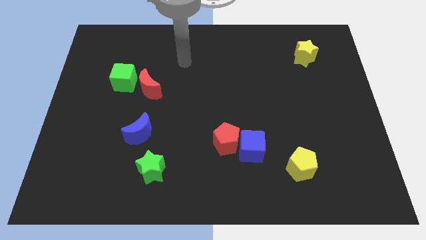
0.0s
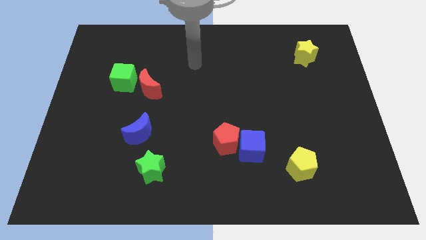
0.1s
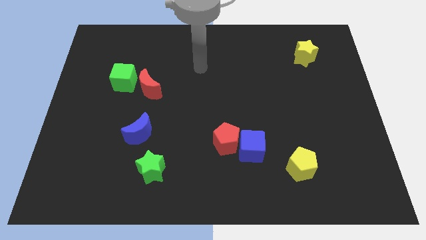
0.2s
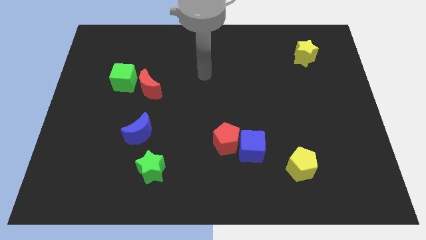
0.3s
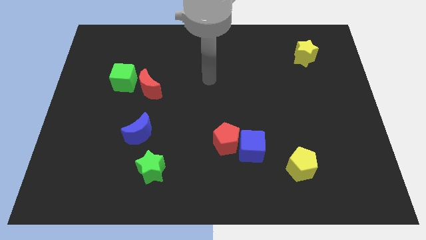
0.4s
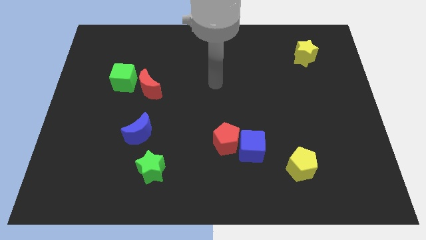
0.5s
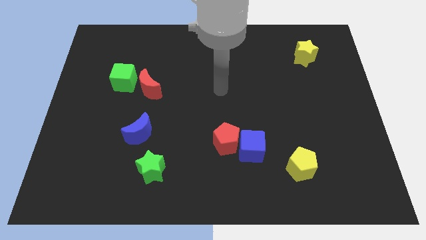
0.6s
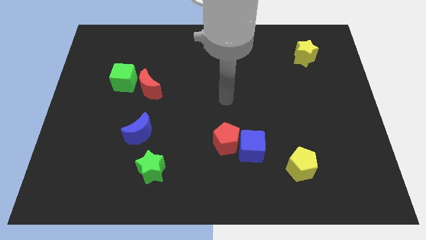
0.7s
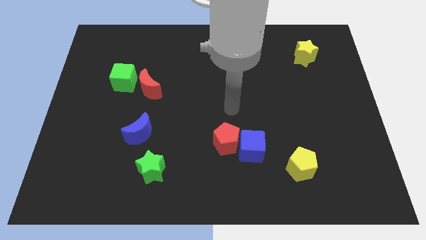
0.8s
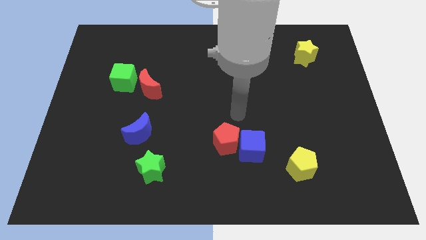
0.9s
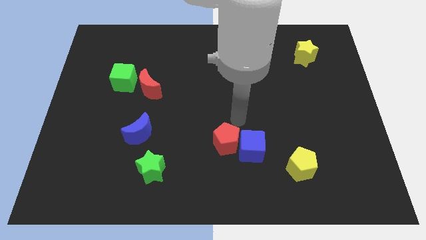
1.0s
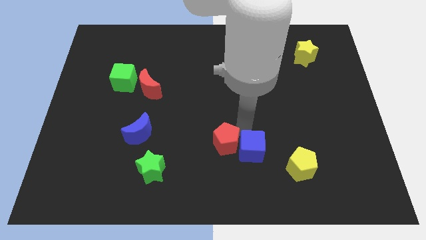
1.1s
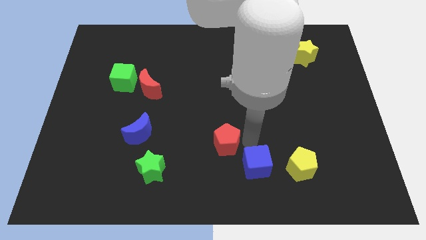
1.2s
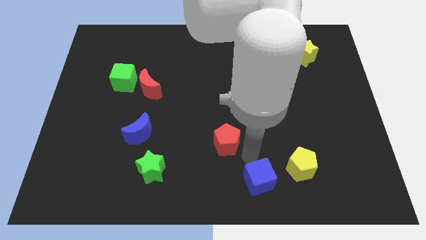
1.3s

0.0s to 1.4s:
separate the red pentagon from the blue cube

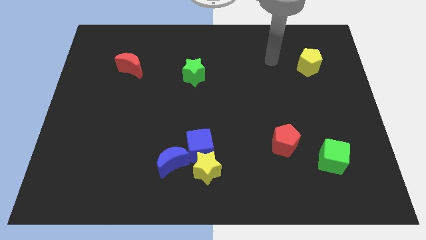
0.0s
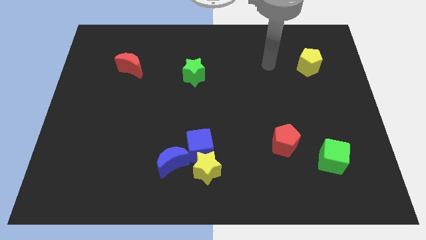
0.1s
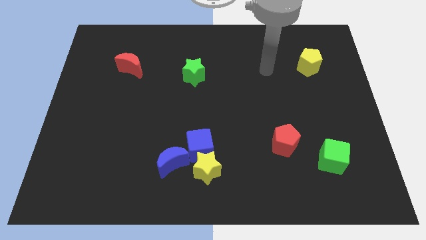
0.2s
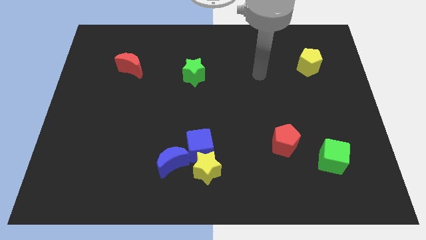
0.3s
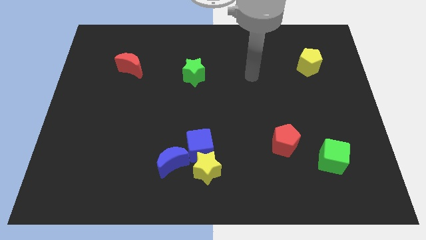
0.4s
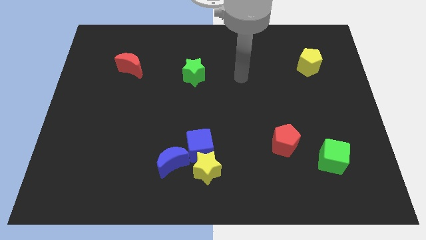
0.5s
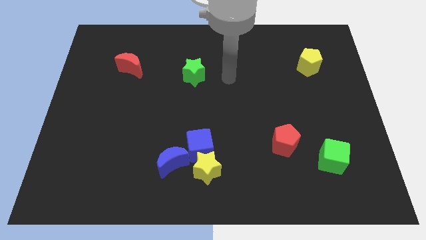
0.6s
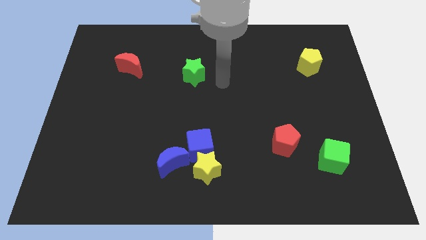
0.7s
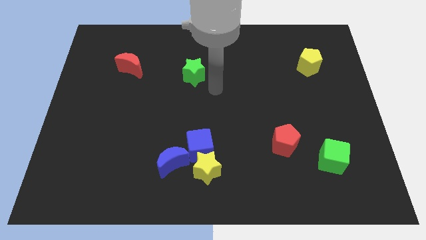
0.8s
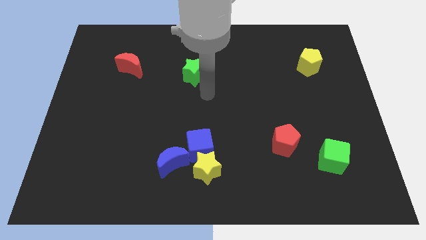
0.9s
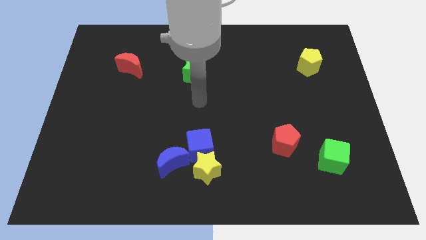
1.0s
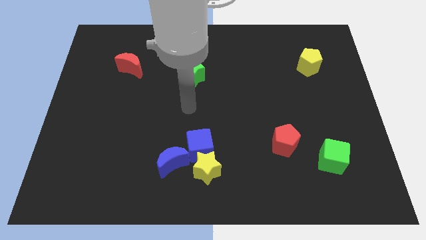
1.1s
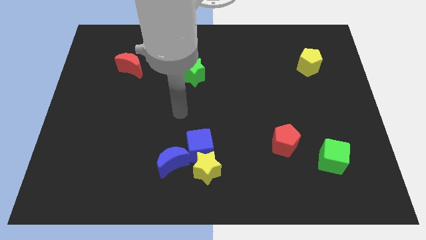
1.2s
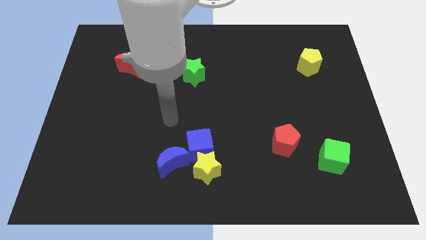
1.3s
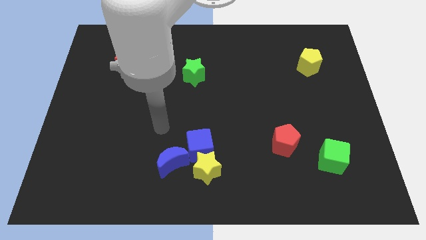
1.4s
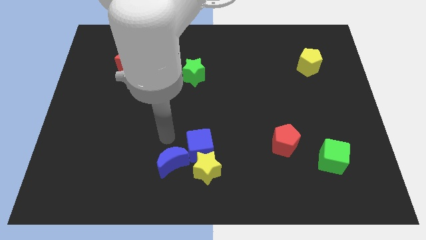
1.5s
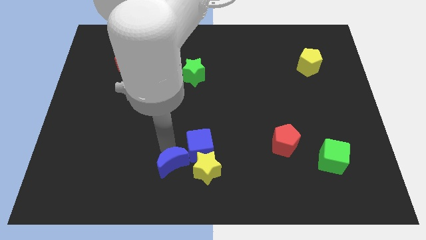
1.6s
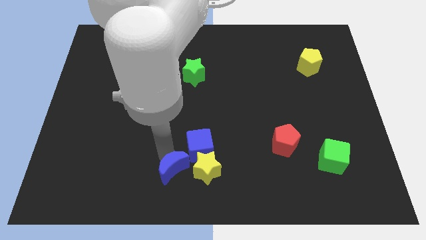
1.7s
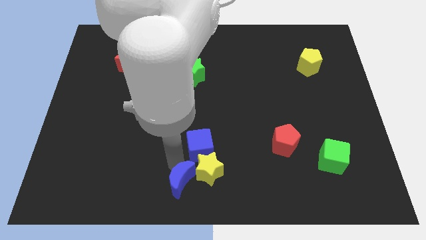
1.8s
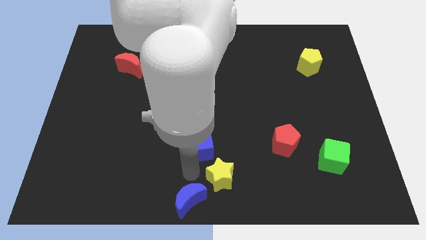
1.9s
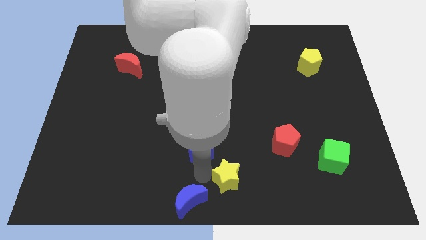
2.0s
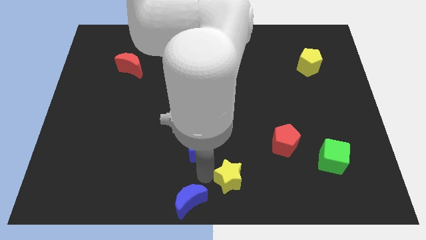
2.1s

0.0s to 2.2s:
pull the blue cube apart from the yellow star and blue moon

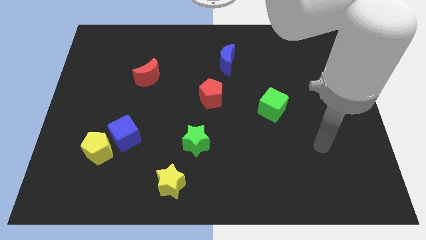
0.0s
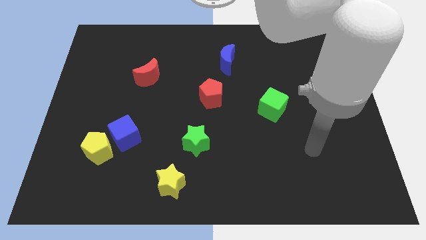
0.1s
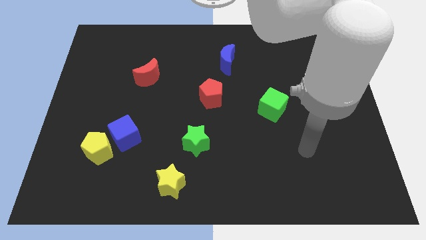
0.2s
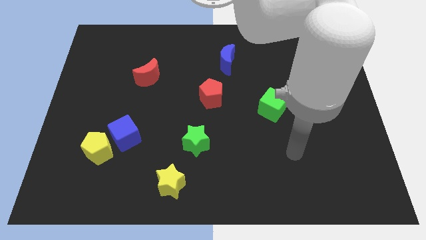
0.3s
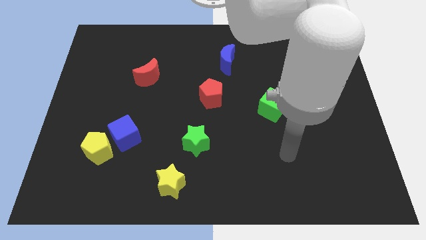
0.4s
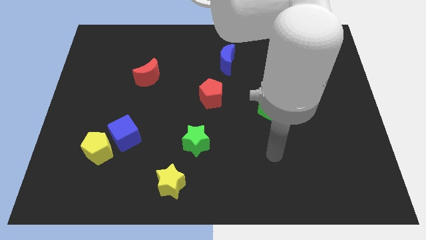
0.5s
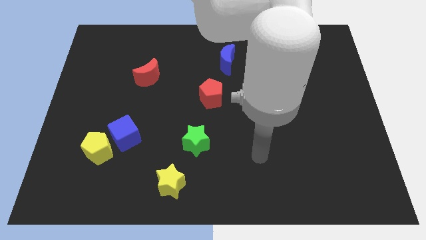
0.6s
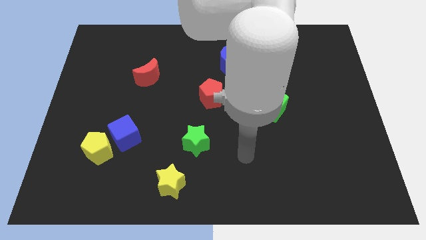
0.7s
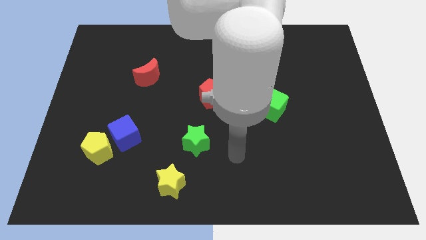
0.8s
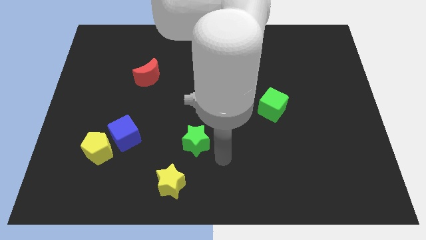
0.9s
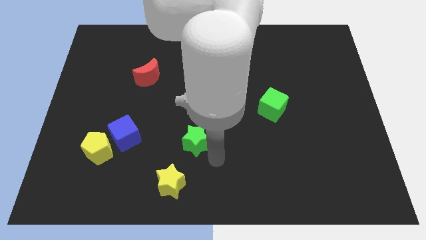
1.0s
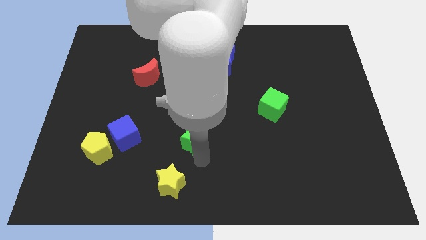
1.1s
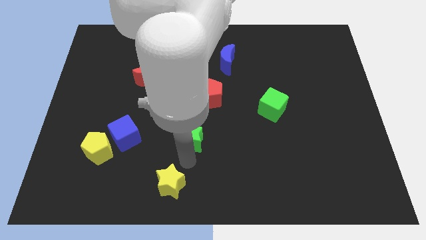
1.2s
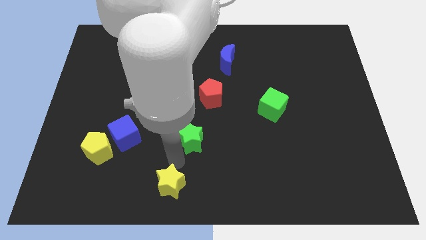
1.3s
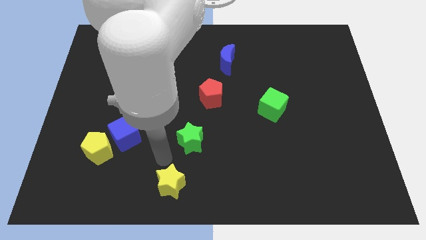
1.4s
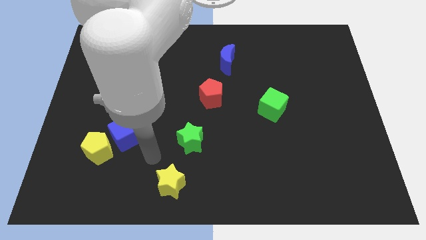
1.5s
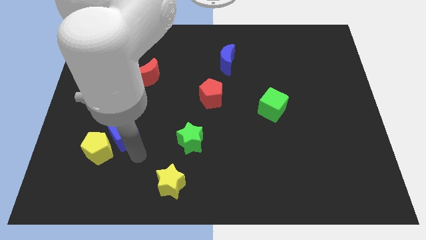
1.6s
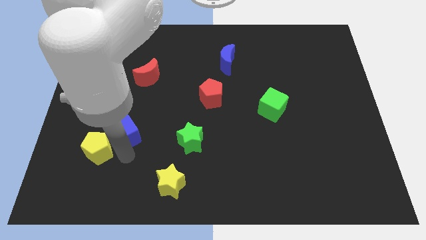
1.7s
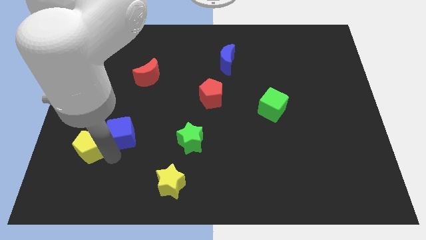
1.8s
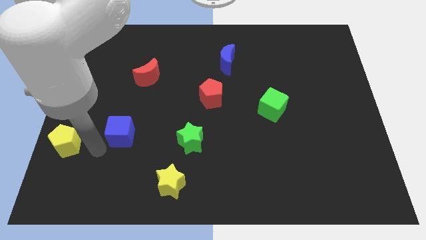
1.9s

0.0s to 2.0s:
pull the blue cube apart from the yellow pentagon

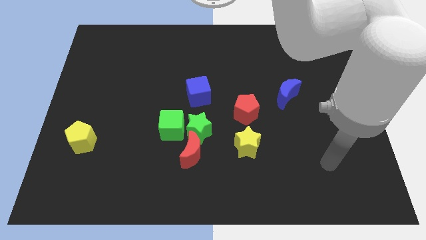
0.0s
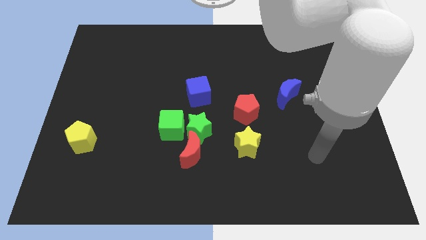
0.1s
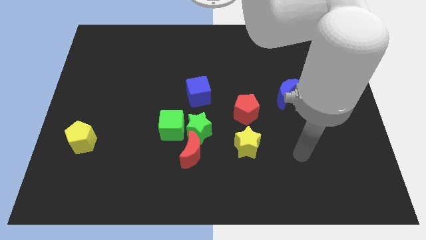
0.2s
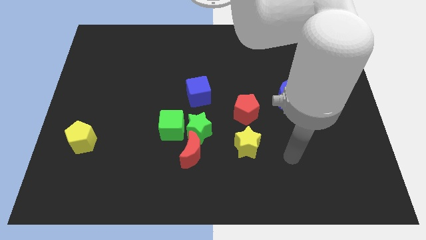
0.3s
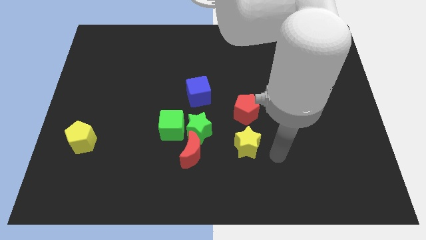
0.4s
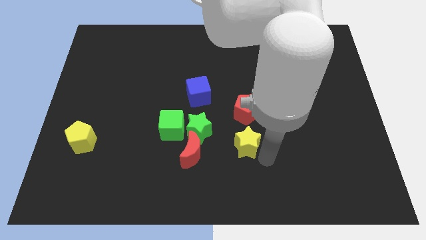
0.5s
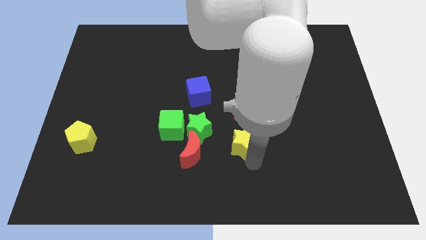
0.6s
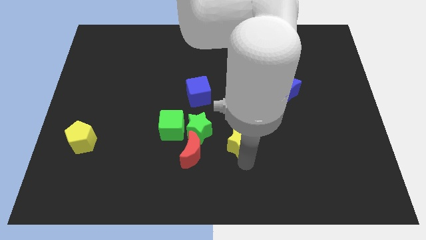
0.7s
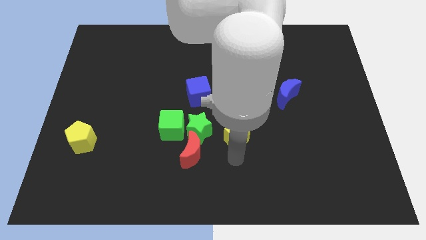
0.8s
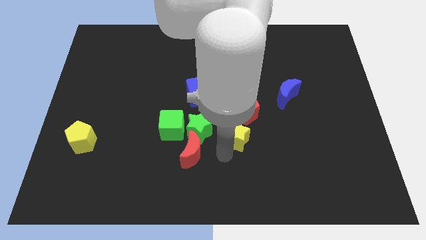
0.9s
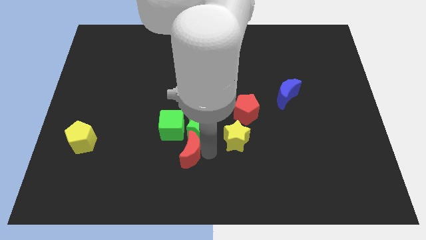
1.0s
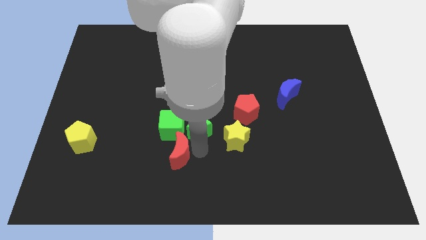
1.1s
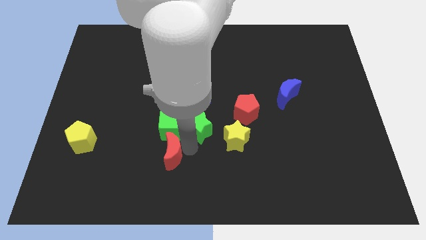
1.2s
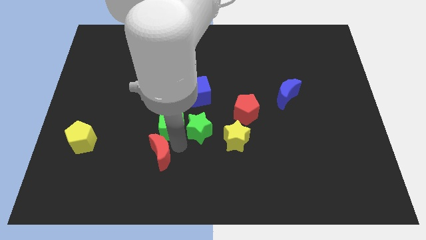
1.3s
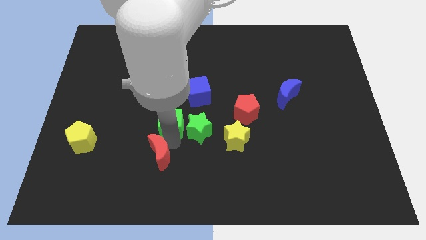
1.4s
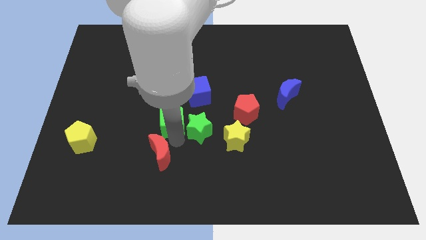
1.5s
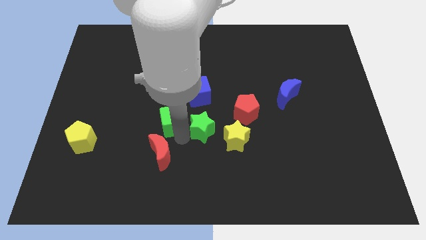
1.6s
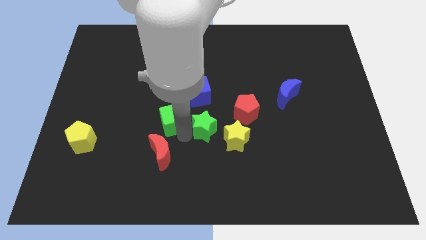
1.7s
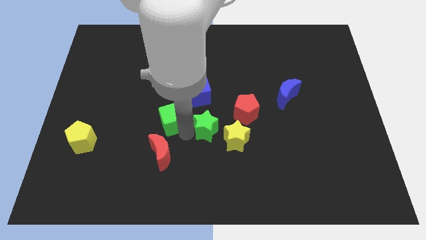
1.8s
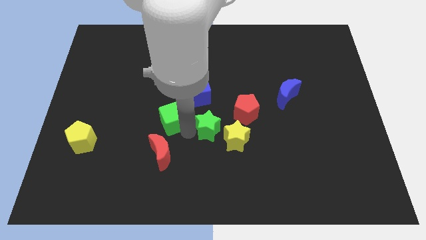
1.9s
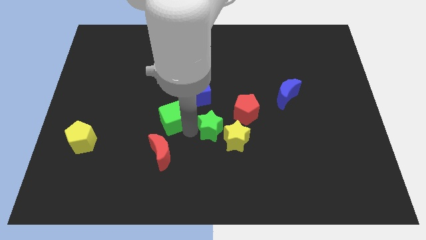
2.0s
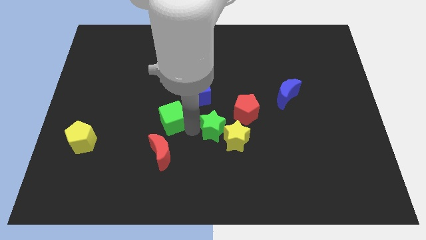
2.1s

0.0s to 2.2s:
separate the green star from the green cube and red moon

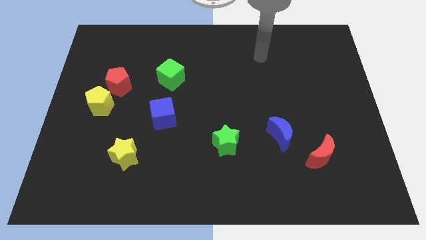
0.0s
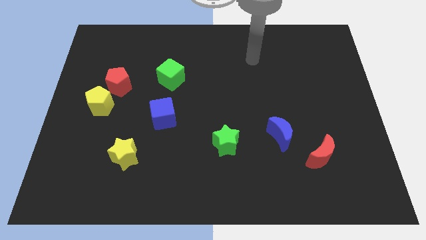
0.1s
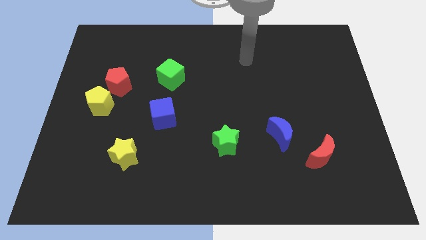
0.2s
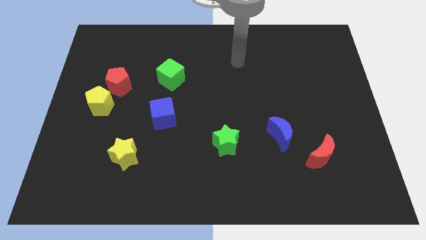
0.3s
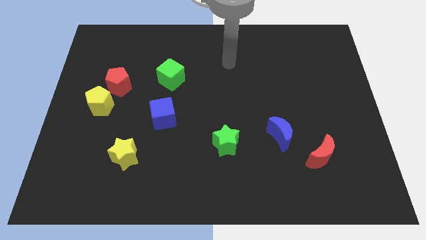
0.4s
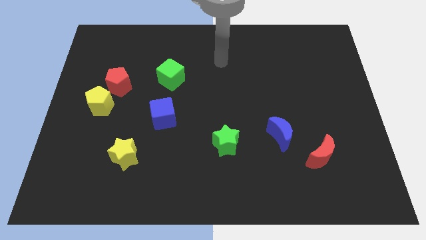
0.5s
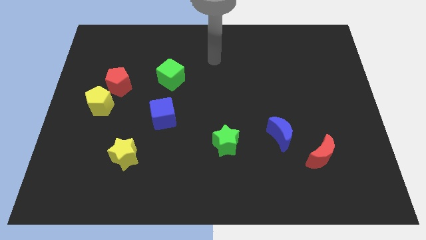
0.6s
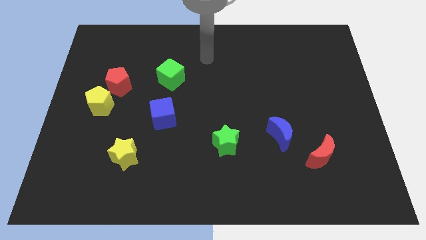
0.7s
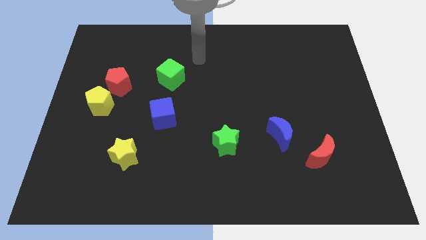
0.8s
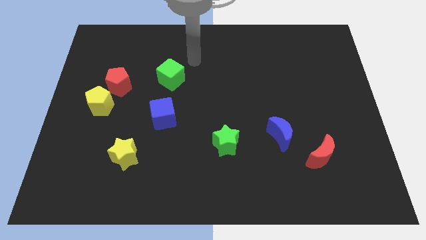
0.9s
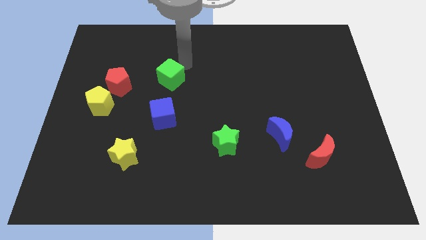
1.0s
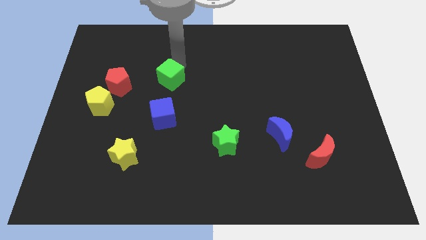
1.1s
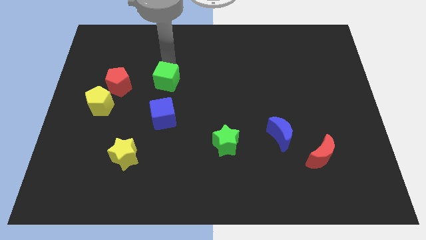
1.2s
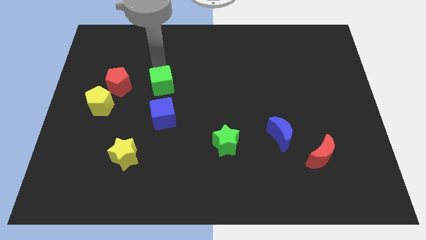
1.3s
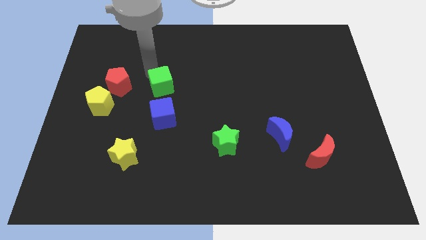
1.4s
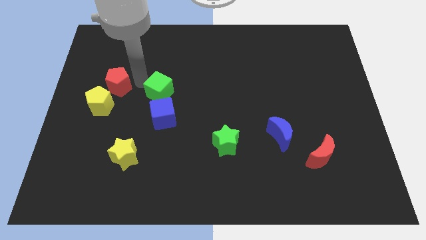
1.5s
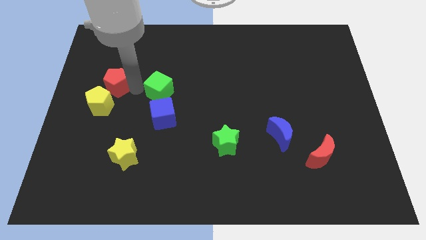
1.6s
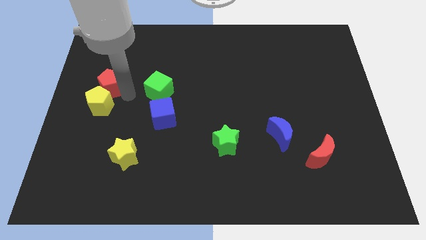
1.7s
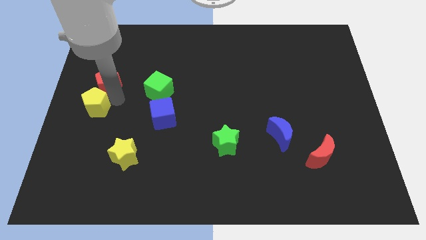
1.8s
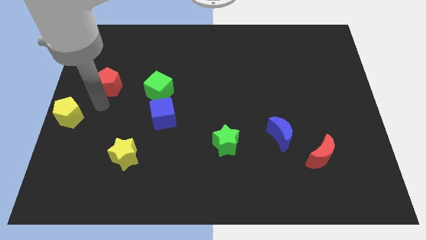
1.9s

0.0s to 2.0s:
move the red pentagon away from the yellow pentagon
